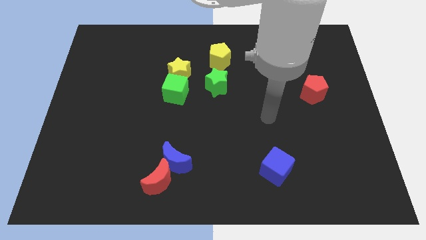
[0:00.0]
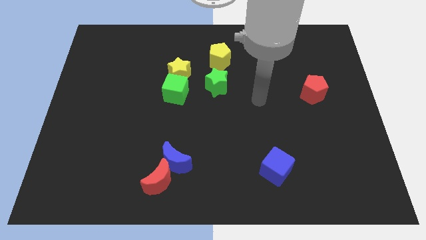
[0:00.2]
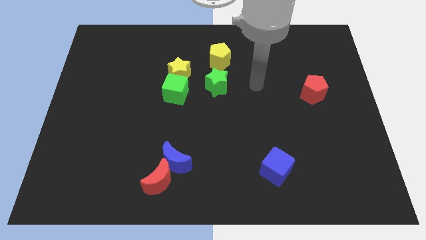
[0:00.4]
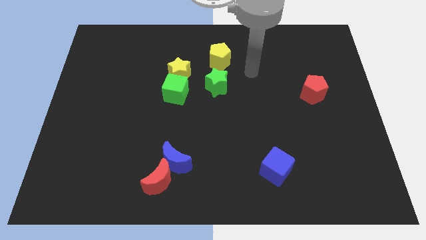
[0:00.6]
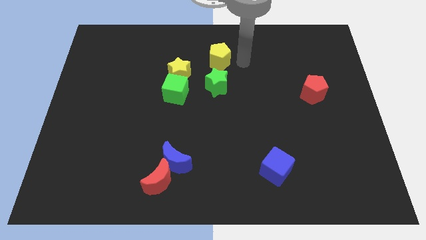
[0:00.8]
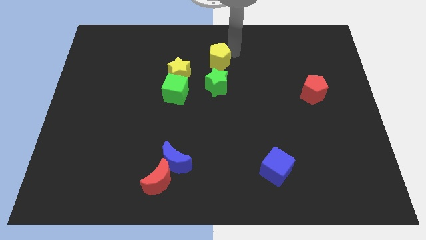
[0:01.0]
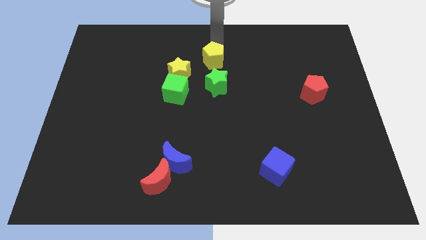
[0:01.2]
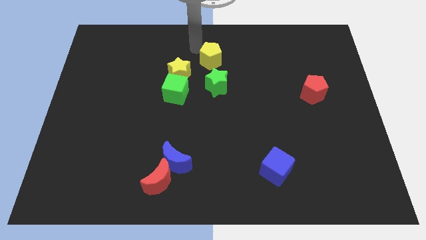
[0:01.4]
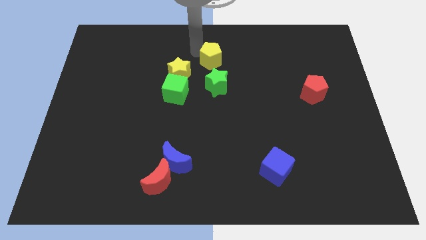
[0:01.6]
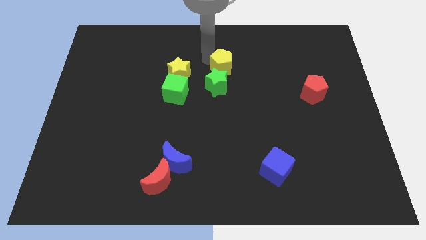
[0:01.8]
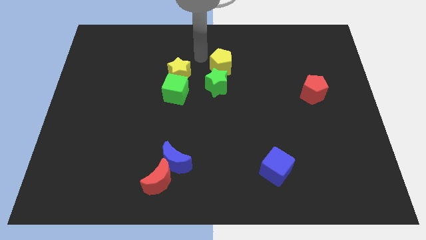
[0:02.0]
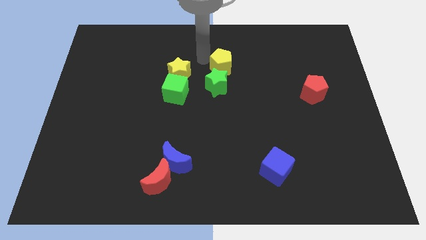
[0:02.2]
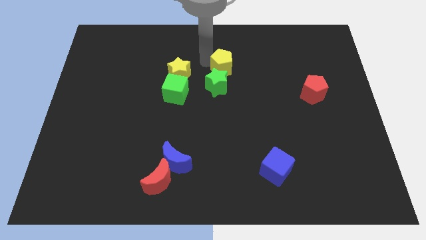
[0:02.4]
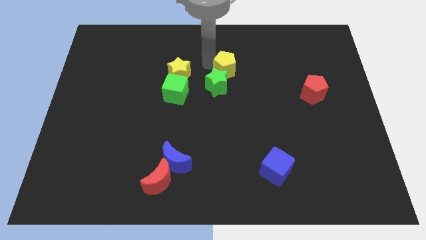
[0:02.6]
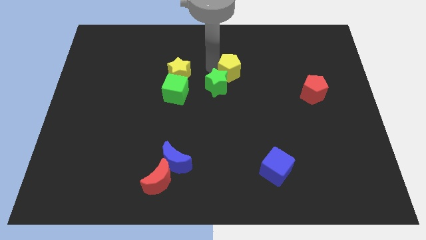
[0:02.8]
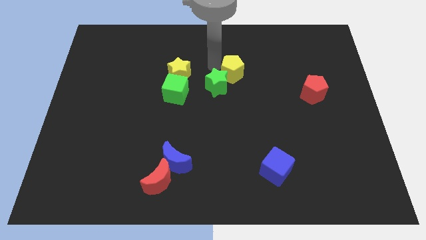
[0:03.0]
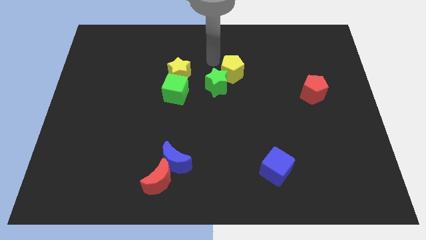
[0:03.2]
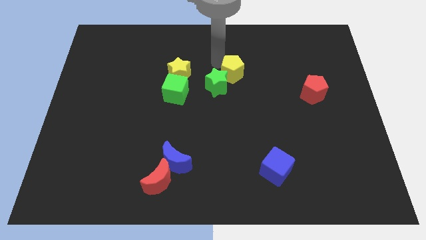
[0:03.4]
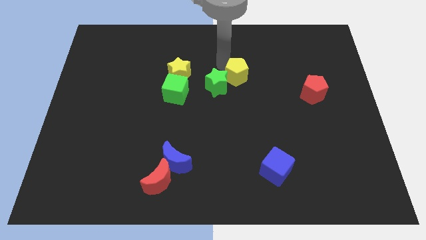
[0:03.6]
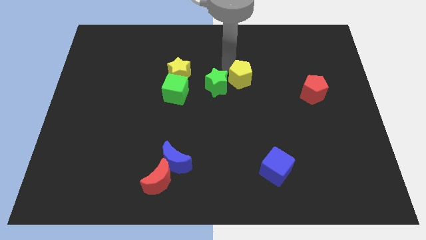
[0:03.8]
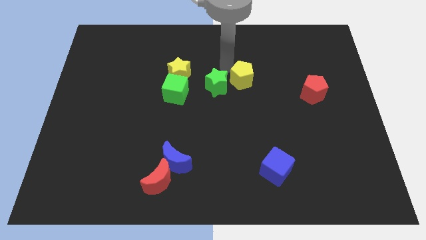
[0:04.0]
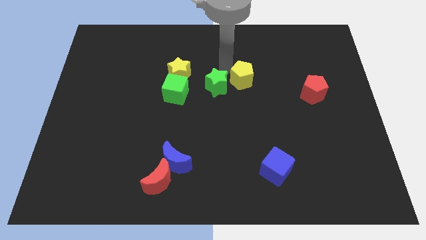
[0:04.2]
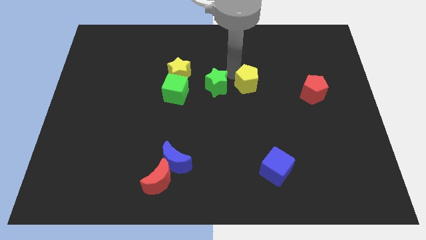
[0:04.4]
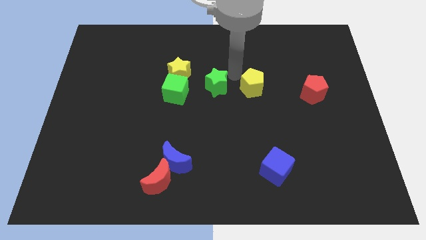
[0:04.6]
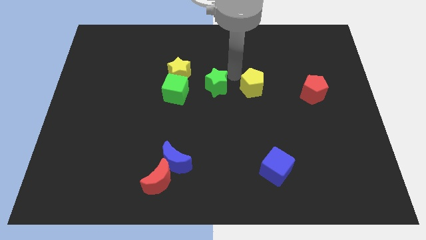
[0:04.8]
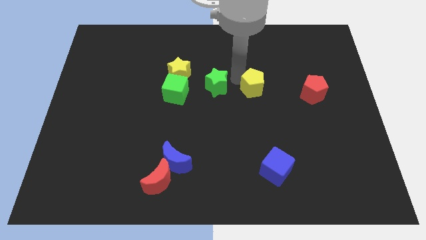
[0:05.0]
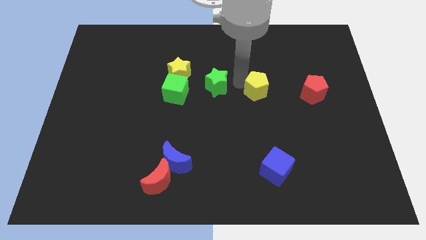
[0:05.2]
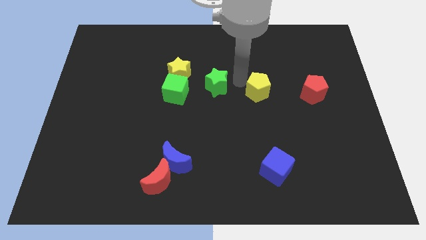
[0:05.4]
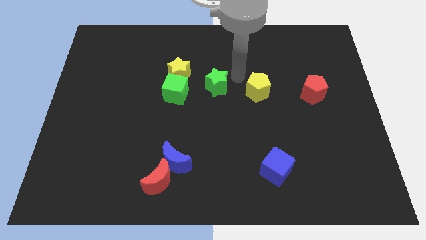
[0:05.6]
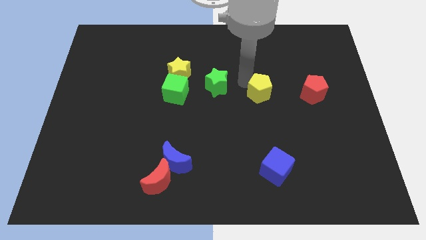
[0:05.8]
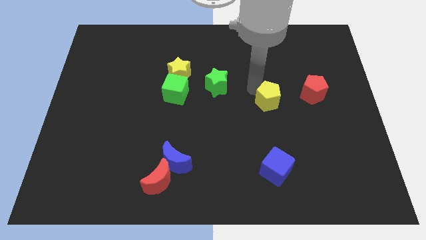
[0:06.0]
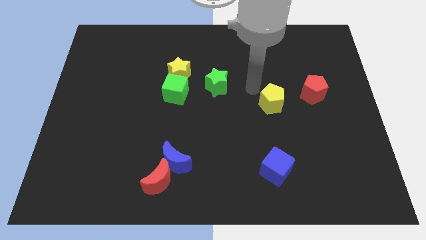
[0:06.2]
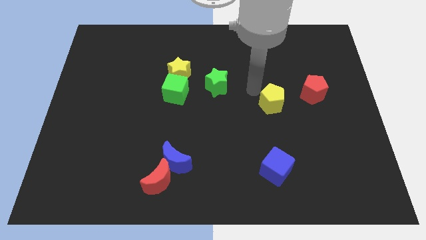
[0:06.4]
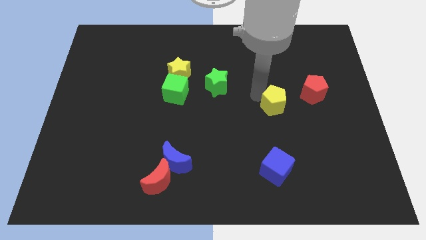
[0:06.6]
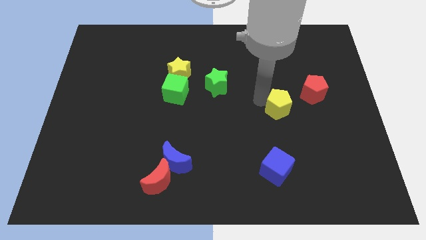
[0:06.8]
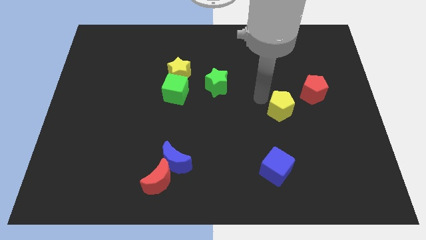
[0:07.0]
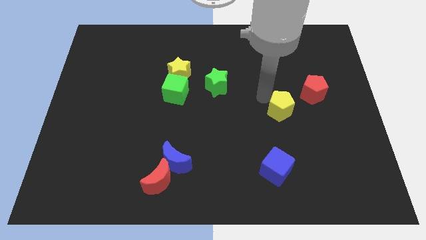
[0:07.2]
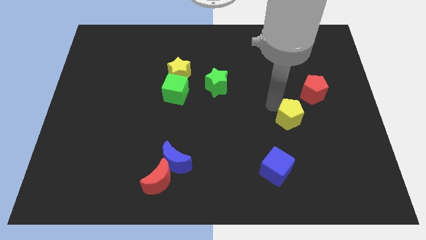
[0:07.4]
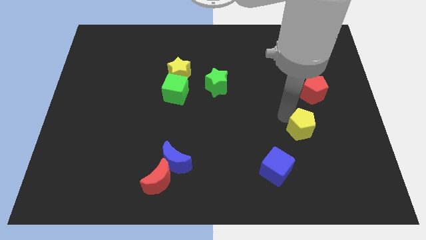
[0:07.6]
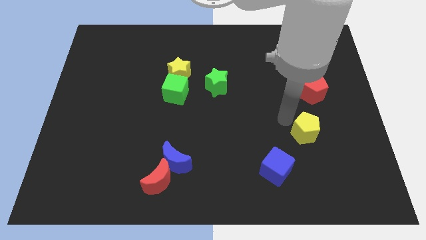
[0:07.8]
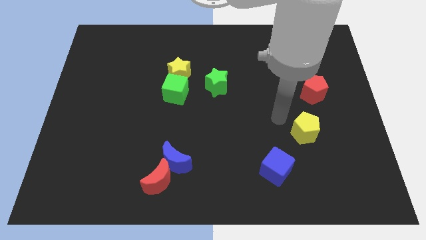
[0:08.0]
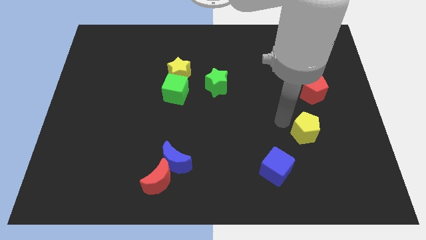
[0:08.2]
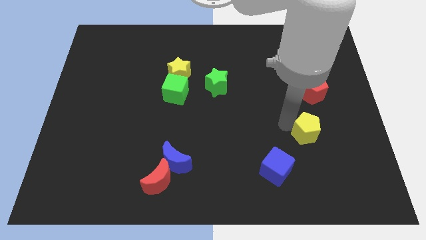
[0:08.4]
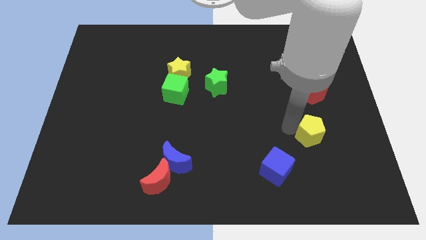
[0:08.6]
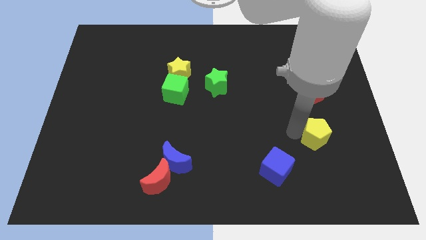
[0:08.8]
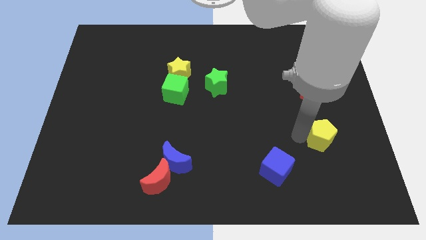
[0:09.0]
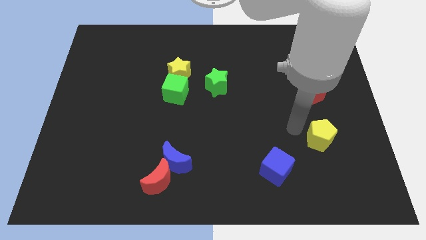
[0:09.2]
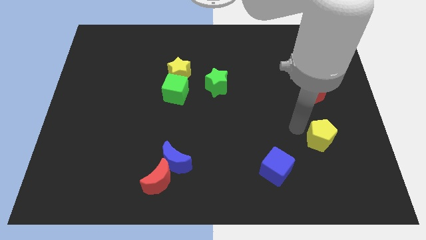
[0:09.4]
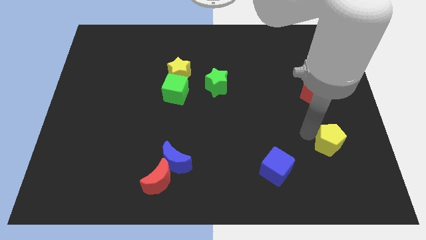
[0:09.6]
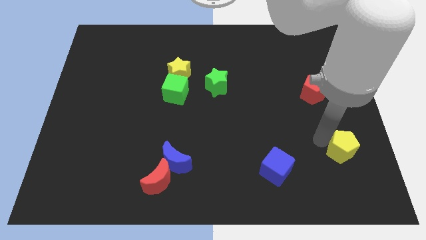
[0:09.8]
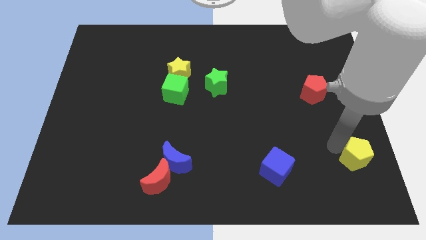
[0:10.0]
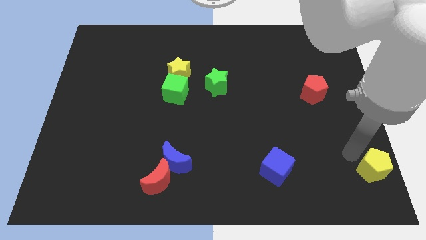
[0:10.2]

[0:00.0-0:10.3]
put the yellow pentagon to the bottom right corner

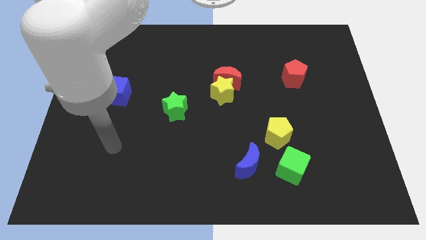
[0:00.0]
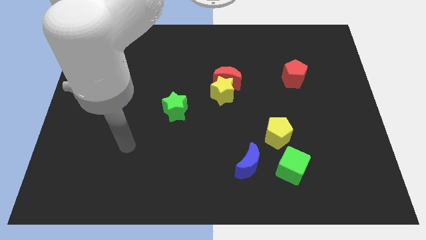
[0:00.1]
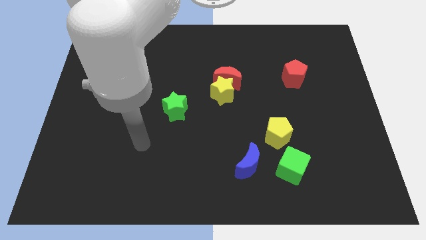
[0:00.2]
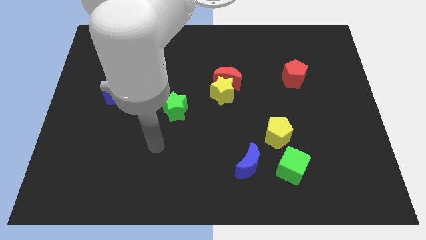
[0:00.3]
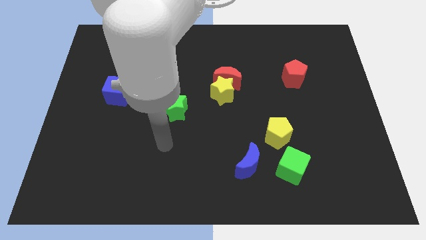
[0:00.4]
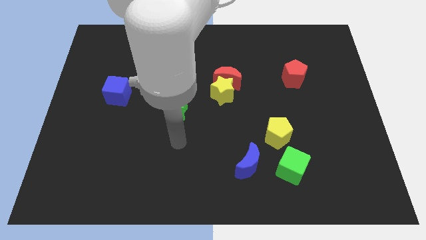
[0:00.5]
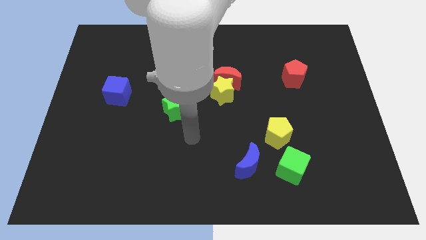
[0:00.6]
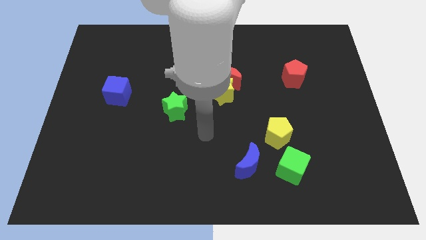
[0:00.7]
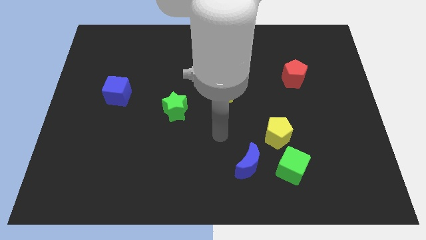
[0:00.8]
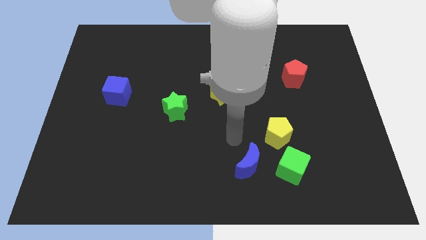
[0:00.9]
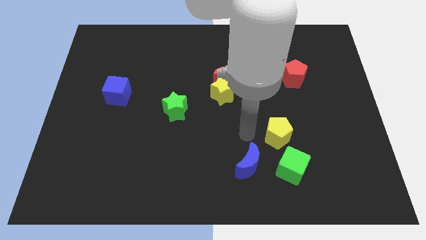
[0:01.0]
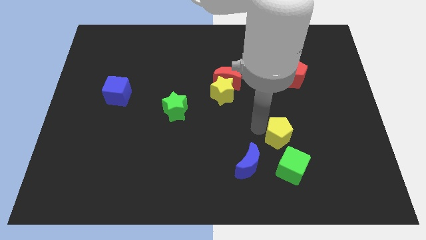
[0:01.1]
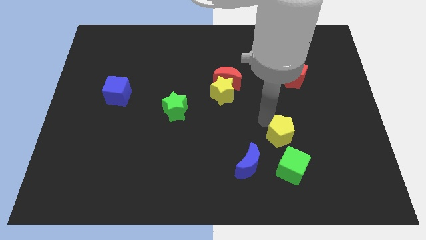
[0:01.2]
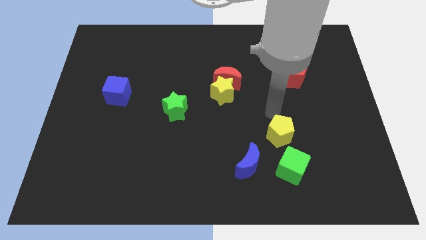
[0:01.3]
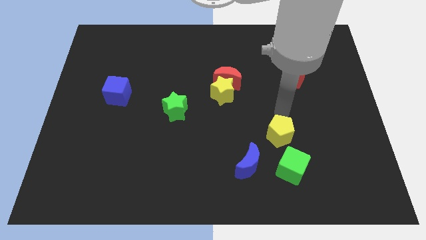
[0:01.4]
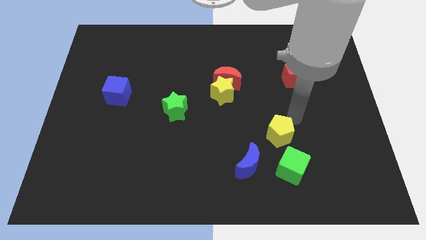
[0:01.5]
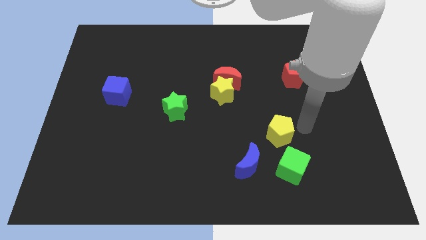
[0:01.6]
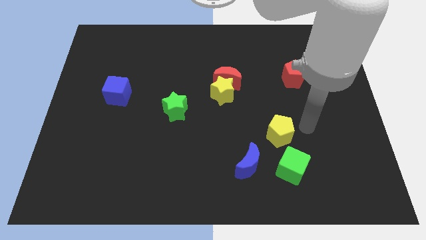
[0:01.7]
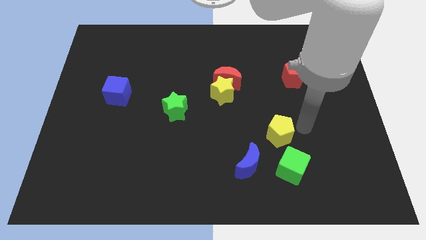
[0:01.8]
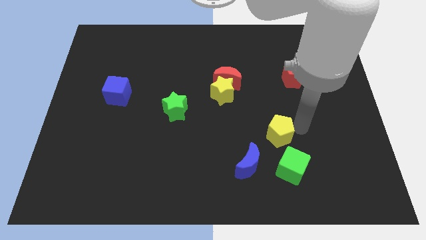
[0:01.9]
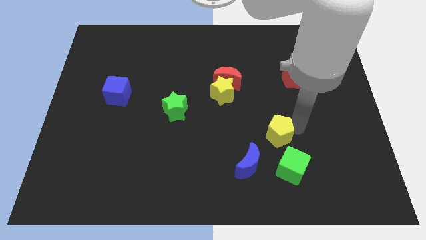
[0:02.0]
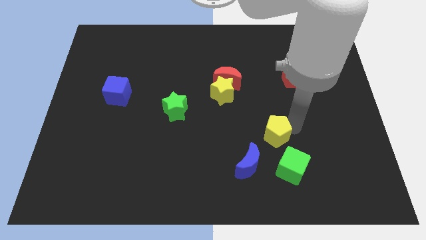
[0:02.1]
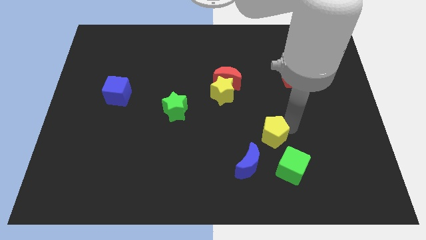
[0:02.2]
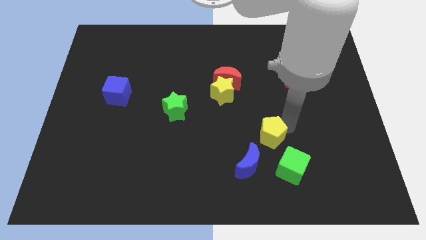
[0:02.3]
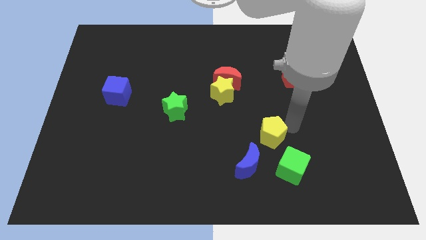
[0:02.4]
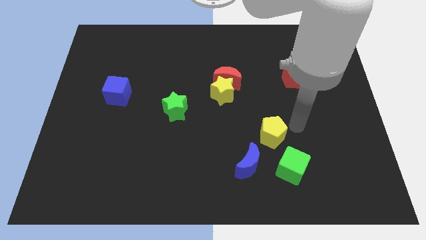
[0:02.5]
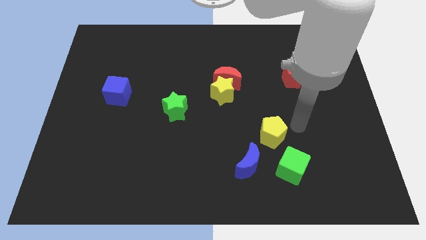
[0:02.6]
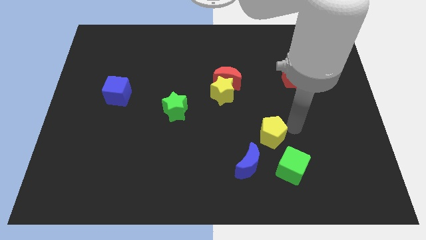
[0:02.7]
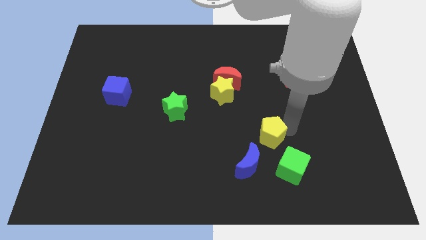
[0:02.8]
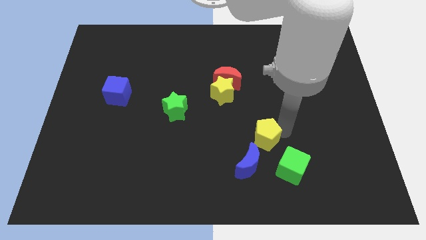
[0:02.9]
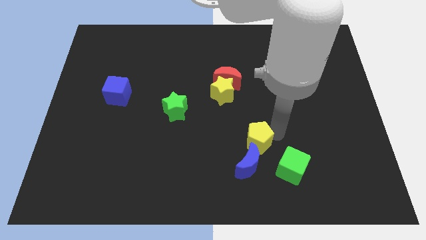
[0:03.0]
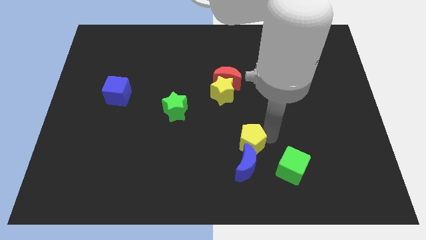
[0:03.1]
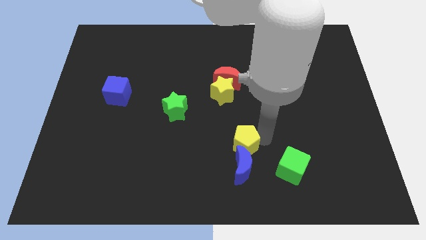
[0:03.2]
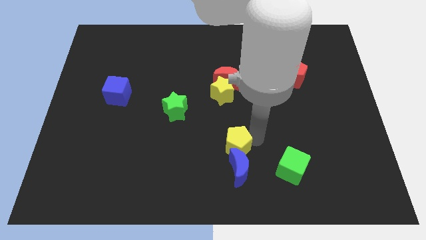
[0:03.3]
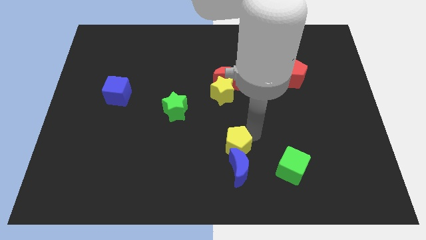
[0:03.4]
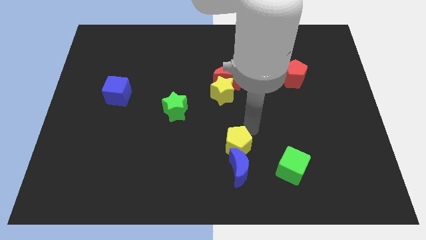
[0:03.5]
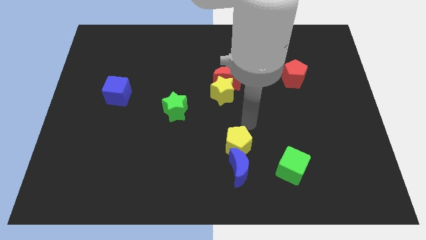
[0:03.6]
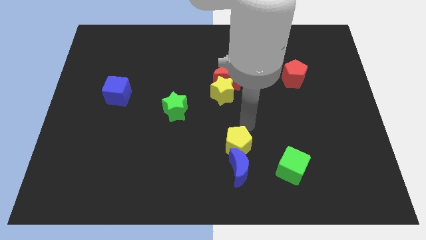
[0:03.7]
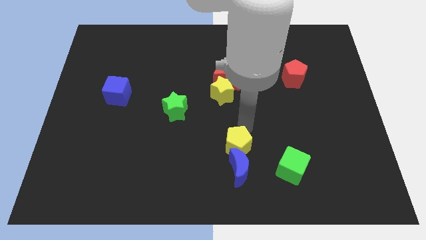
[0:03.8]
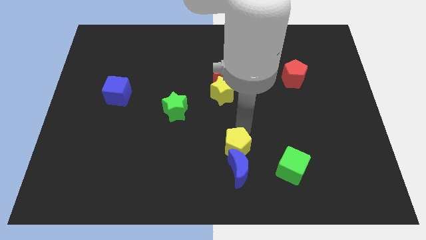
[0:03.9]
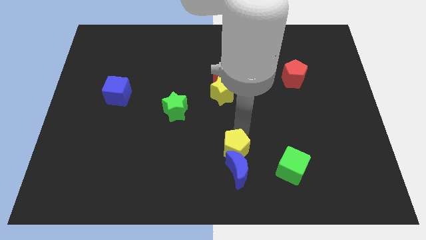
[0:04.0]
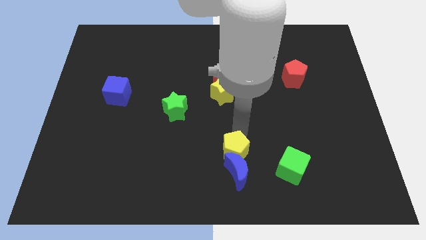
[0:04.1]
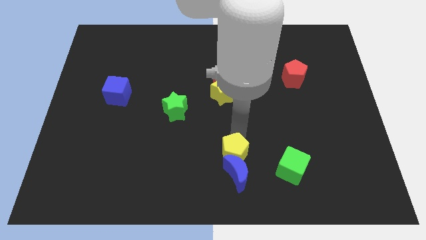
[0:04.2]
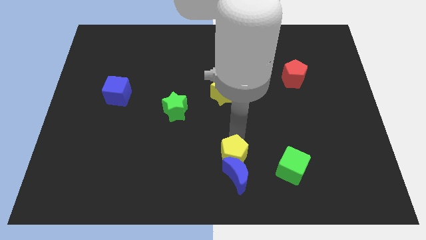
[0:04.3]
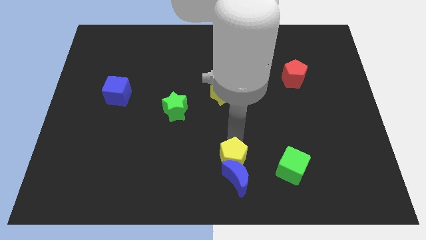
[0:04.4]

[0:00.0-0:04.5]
move the yellow pentagon to the bottom
